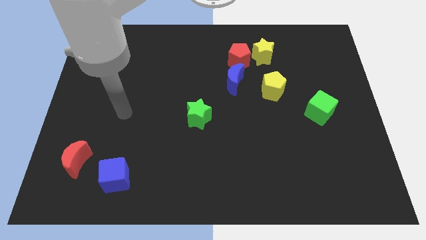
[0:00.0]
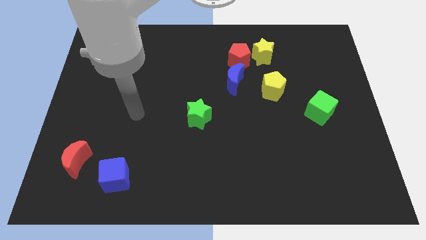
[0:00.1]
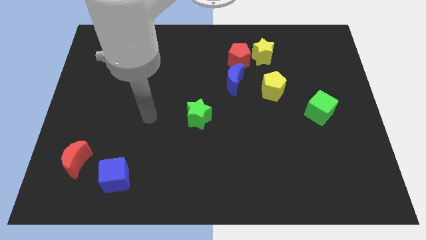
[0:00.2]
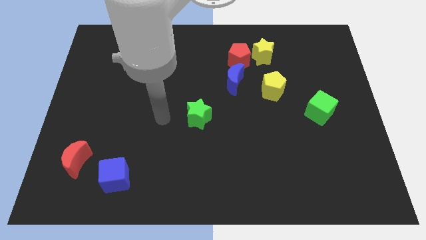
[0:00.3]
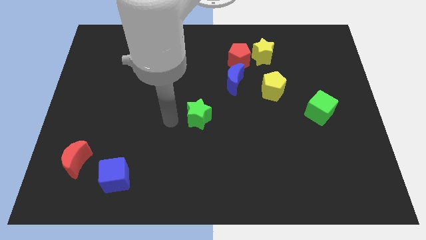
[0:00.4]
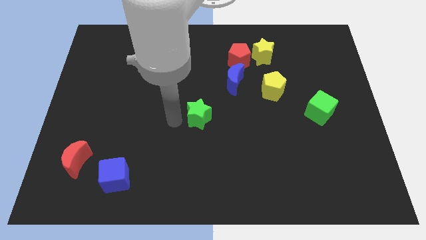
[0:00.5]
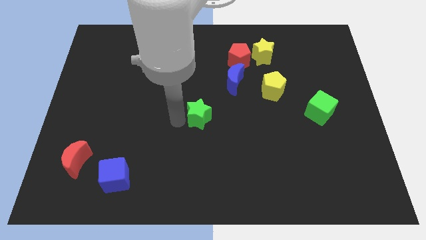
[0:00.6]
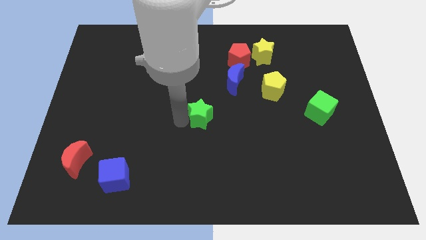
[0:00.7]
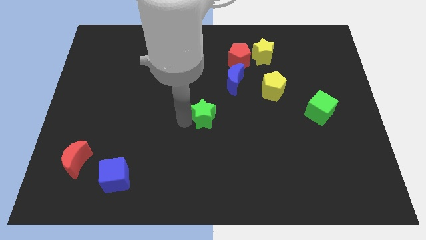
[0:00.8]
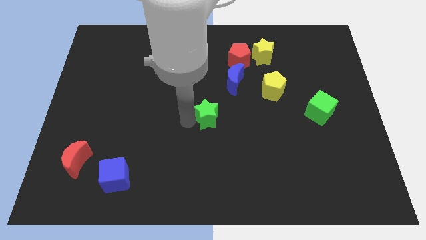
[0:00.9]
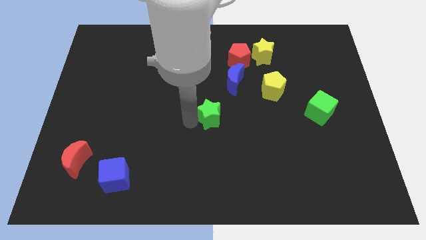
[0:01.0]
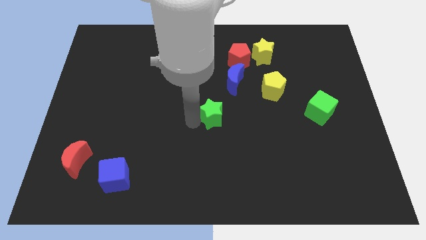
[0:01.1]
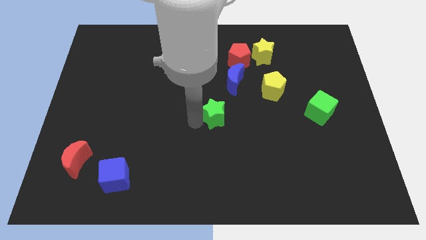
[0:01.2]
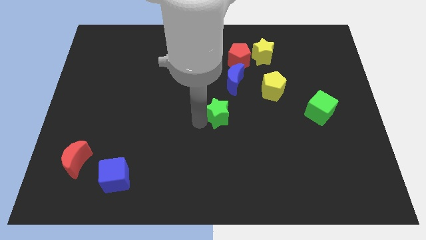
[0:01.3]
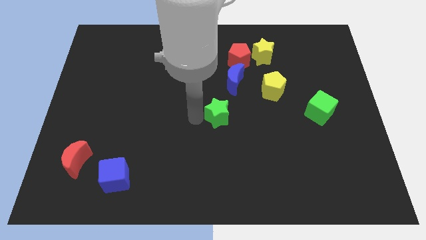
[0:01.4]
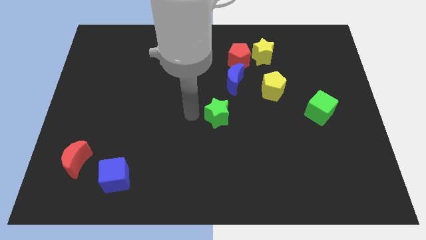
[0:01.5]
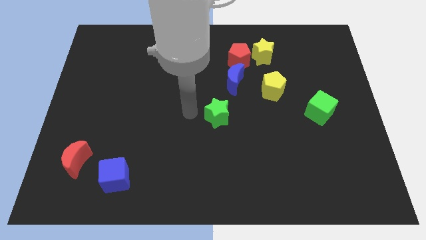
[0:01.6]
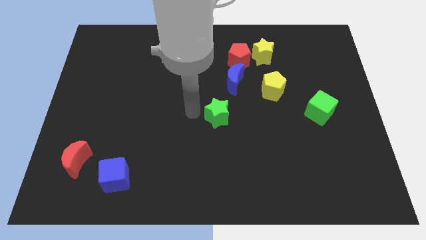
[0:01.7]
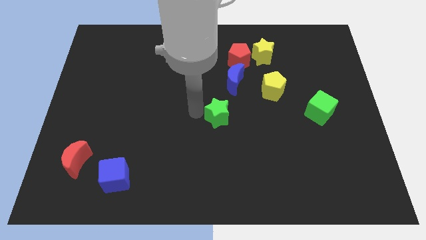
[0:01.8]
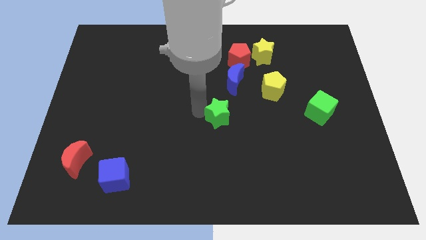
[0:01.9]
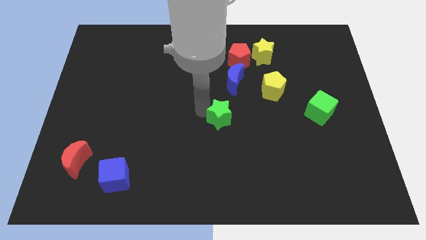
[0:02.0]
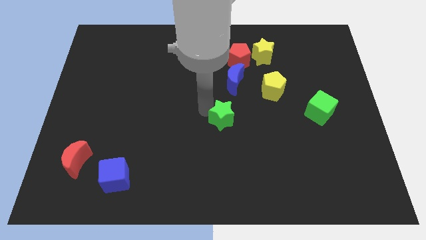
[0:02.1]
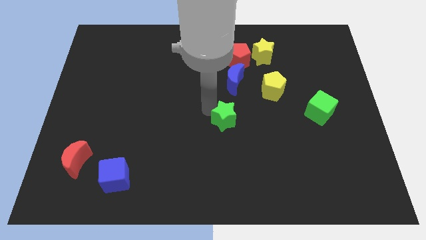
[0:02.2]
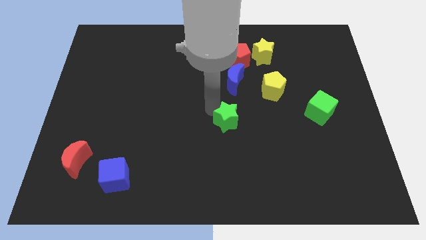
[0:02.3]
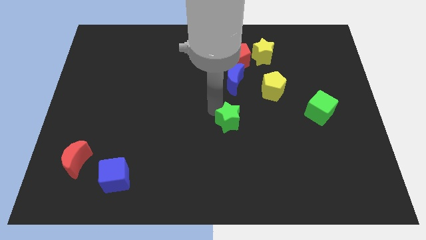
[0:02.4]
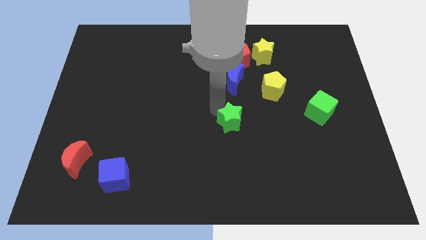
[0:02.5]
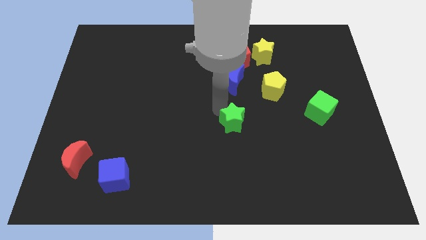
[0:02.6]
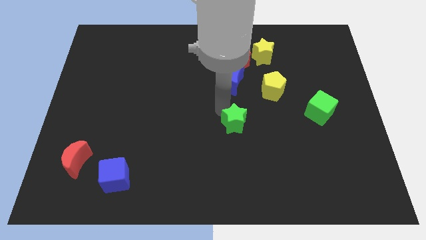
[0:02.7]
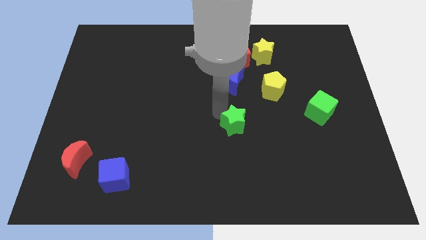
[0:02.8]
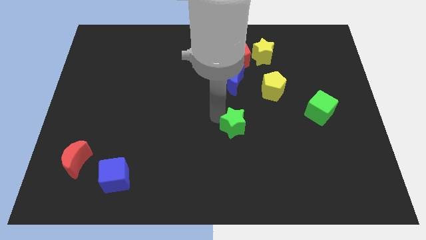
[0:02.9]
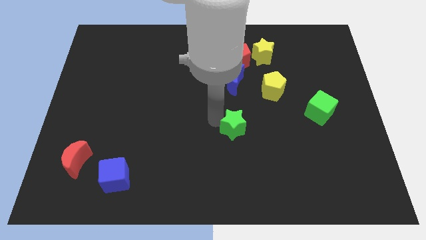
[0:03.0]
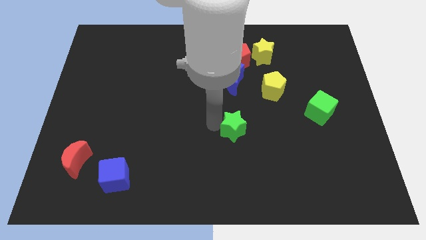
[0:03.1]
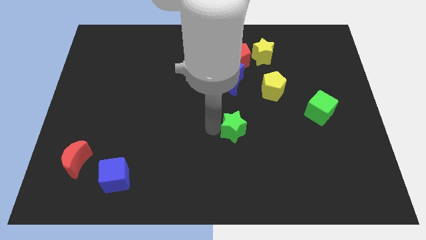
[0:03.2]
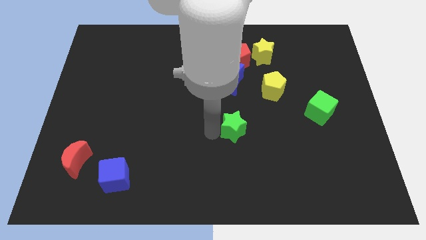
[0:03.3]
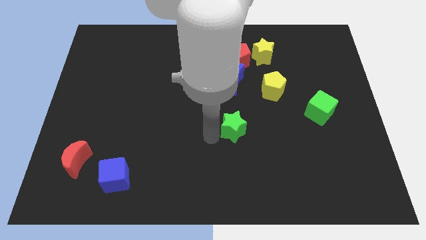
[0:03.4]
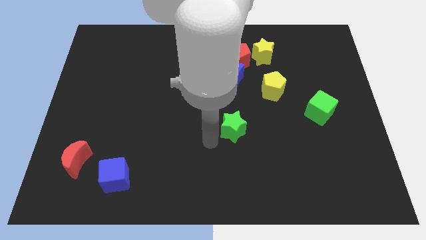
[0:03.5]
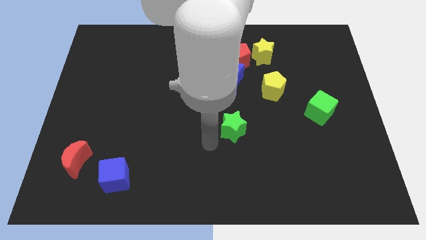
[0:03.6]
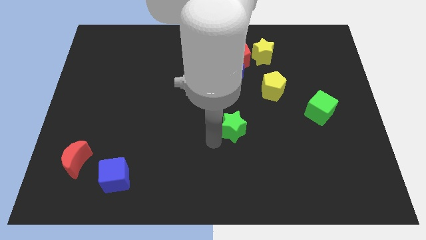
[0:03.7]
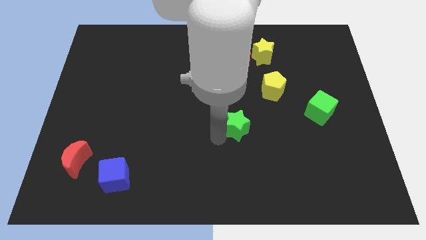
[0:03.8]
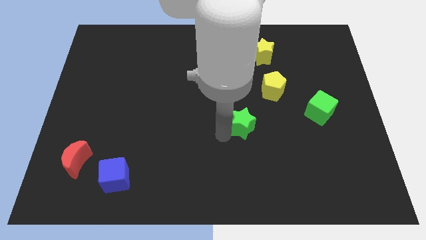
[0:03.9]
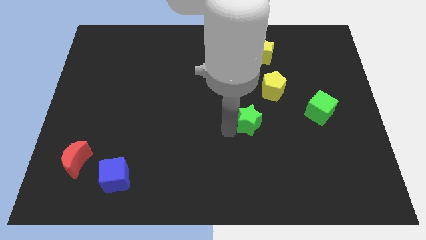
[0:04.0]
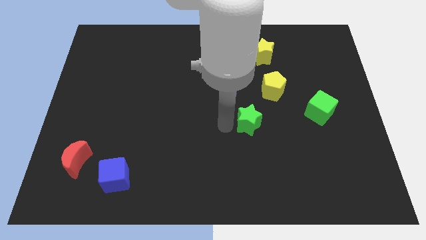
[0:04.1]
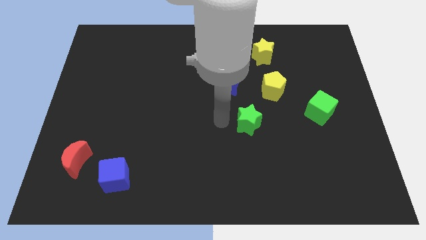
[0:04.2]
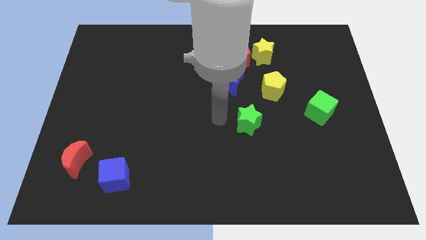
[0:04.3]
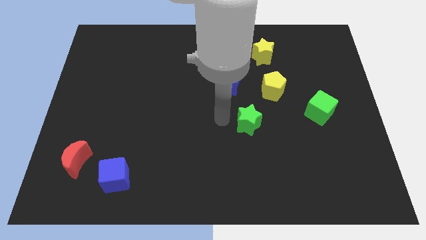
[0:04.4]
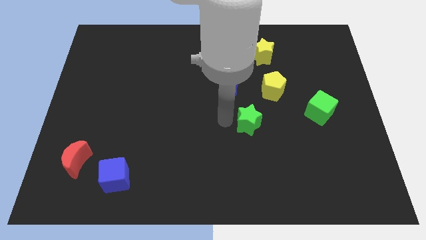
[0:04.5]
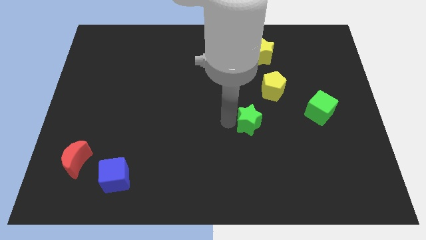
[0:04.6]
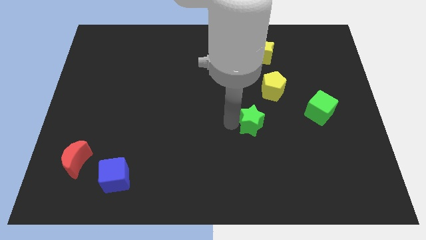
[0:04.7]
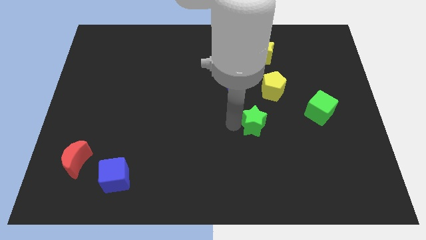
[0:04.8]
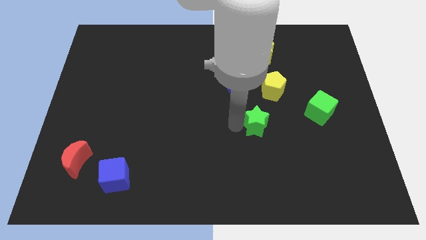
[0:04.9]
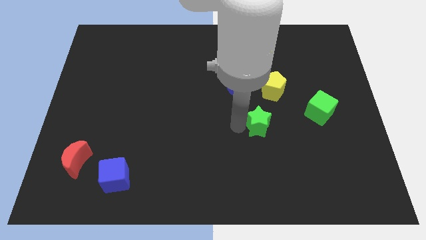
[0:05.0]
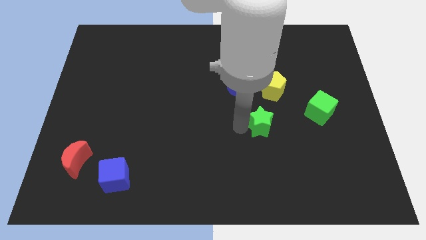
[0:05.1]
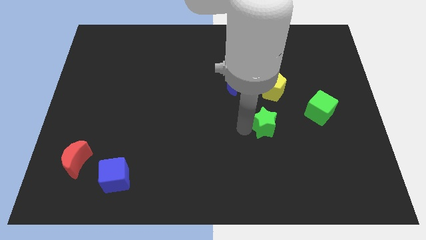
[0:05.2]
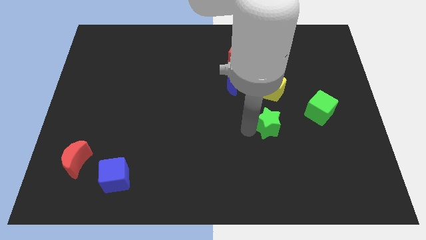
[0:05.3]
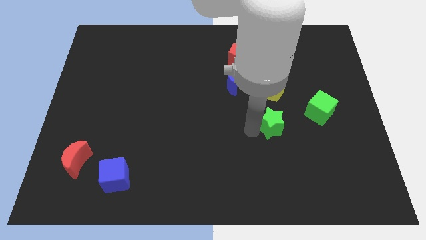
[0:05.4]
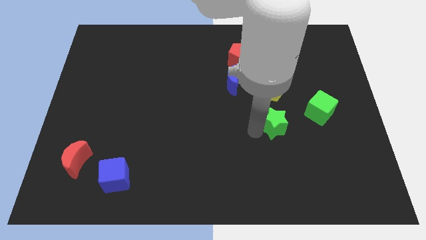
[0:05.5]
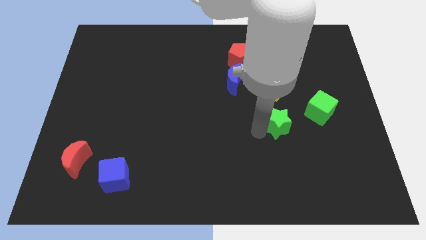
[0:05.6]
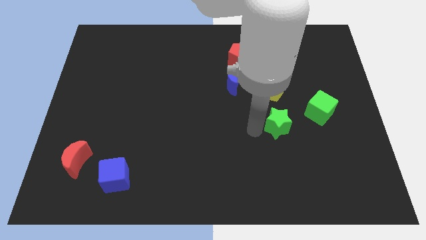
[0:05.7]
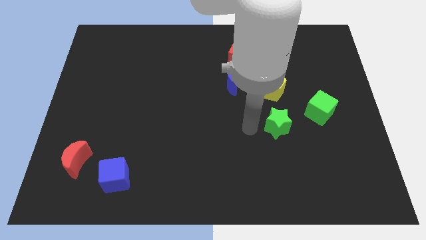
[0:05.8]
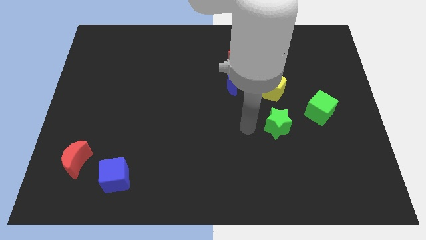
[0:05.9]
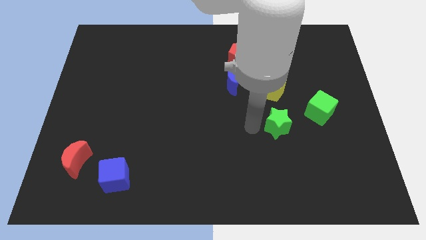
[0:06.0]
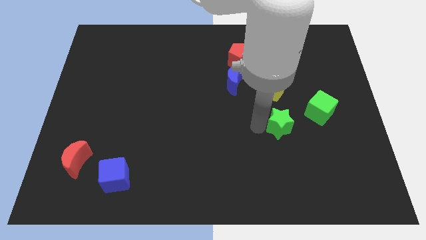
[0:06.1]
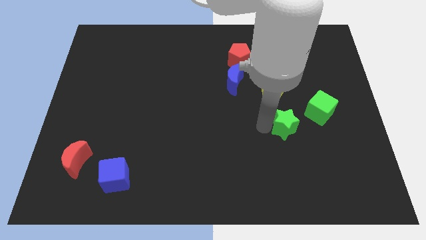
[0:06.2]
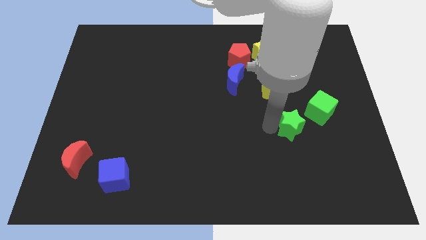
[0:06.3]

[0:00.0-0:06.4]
push the green star to the right

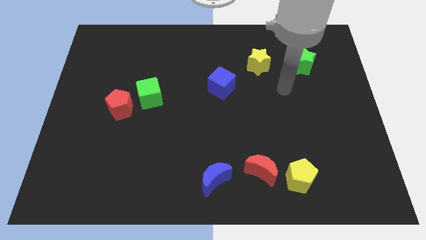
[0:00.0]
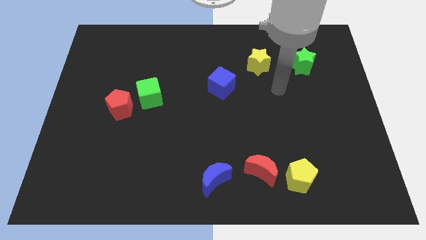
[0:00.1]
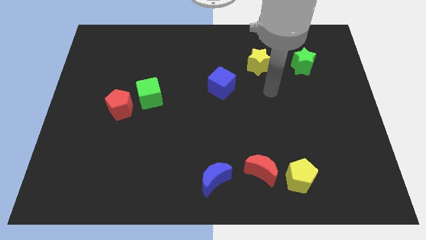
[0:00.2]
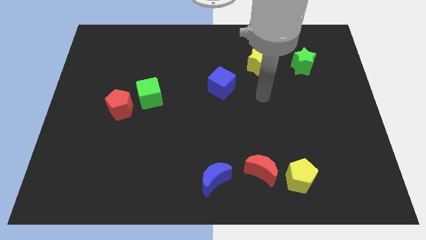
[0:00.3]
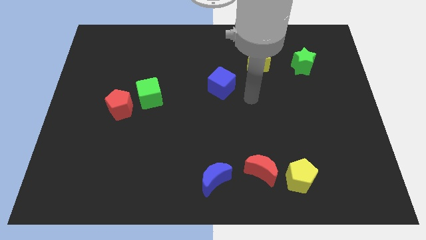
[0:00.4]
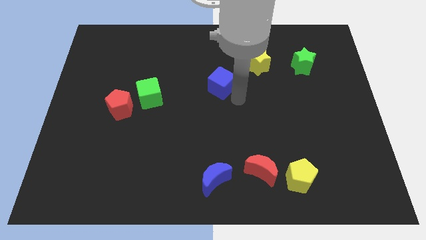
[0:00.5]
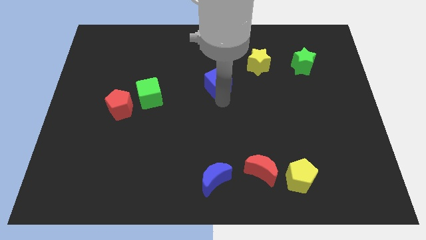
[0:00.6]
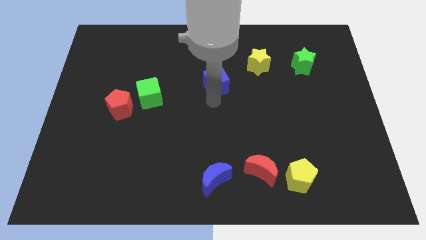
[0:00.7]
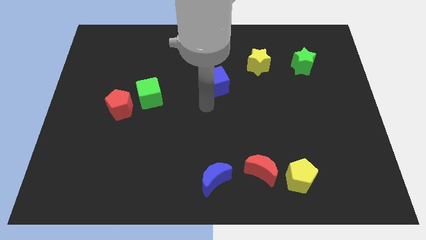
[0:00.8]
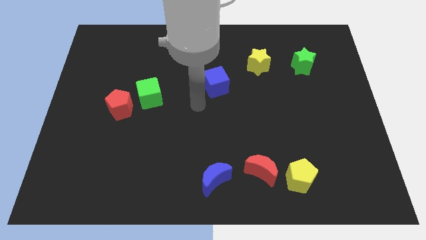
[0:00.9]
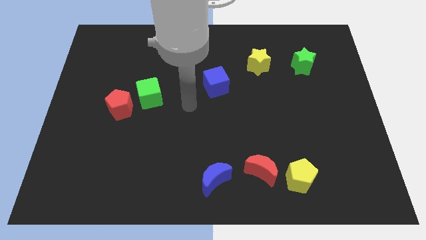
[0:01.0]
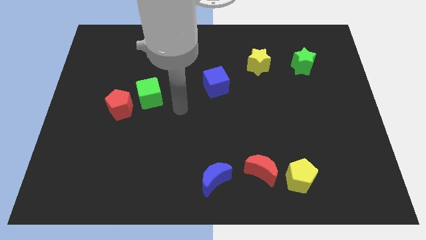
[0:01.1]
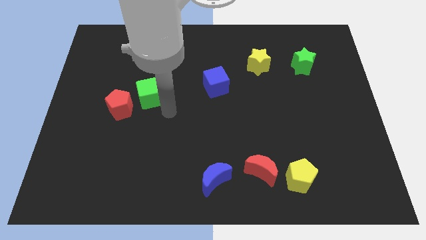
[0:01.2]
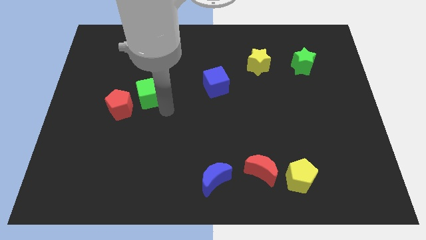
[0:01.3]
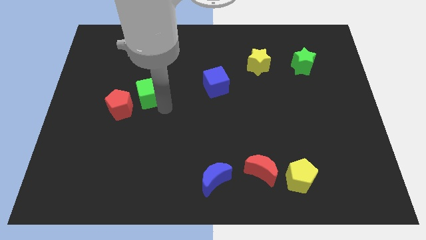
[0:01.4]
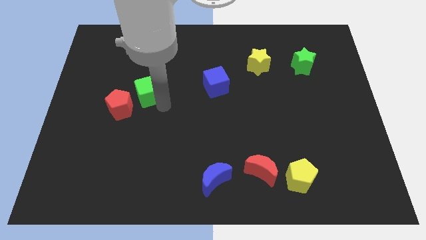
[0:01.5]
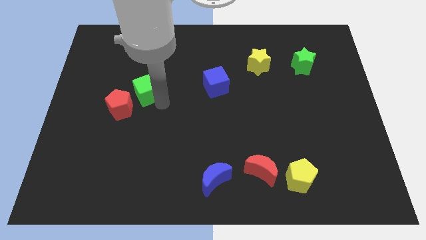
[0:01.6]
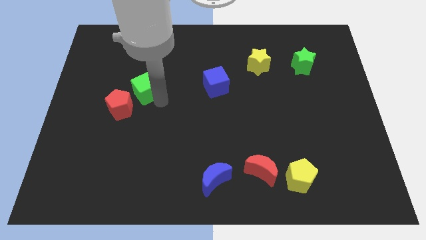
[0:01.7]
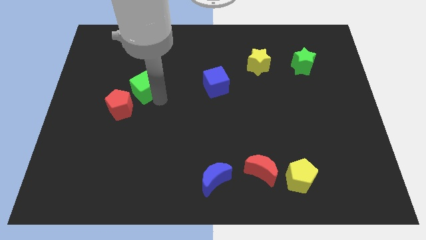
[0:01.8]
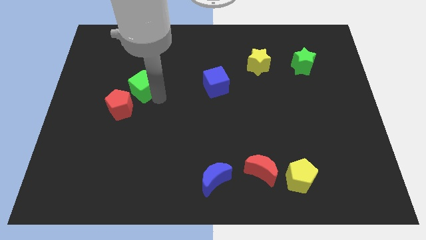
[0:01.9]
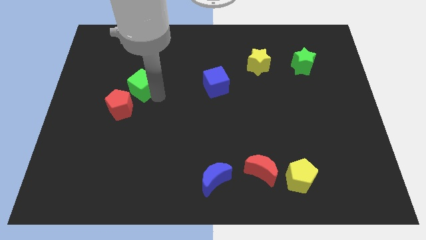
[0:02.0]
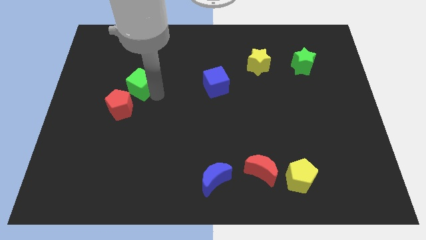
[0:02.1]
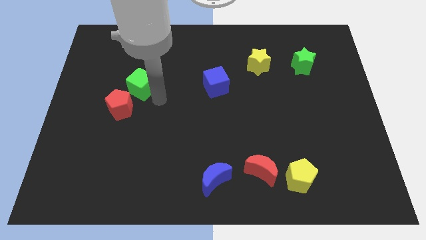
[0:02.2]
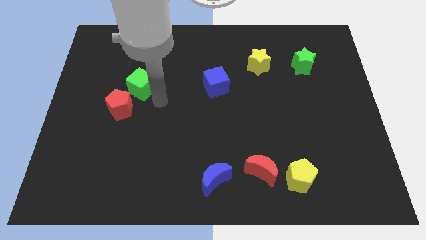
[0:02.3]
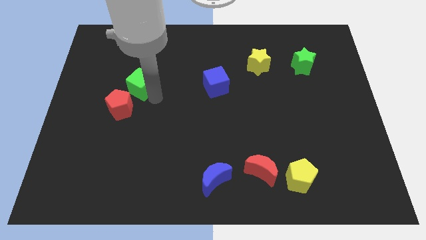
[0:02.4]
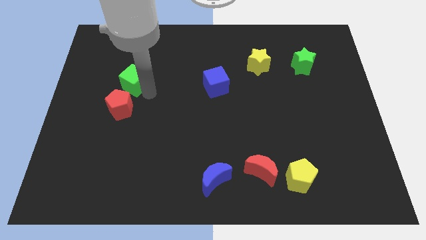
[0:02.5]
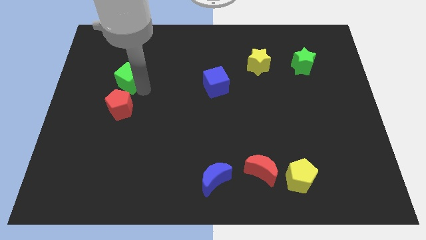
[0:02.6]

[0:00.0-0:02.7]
move the green cube slightly diagonally up and to the left
